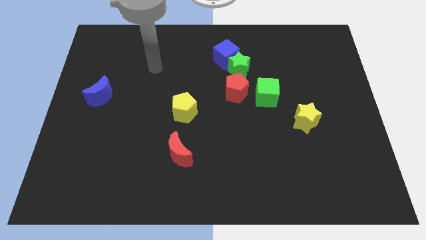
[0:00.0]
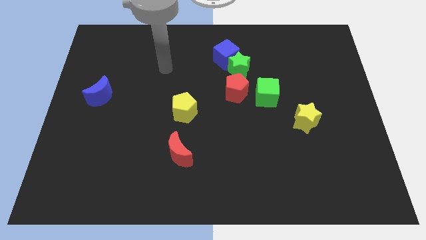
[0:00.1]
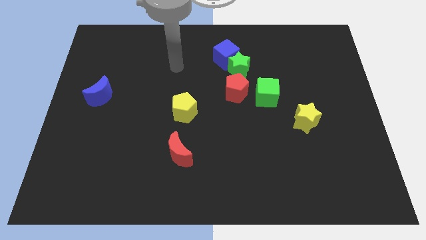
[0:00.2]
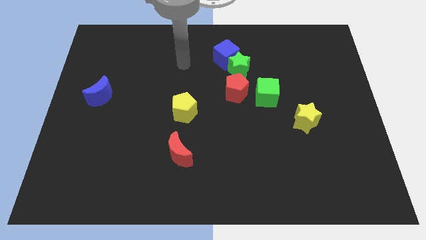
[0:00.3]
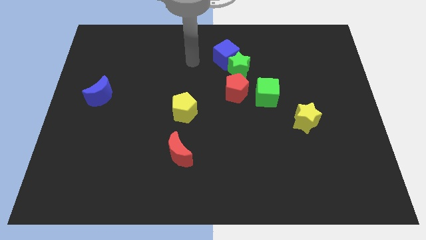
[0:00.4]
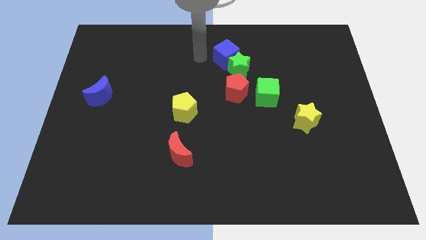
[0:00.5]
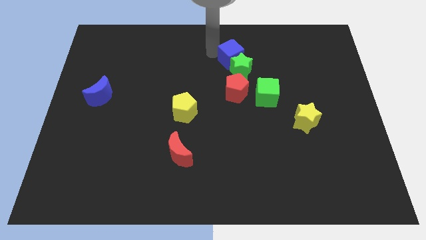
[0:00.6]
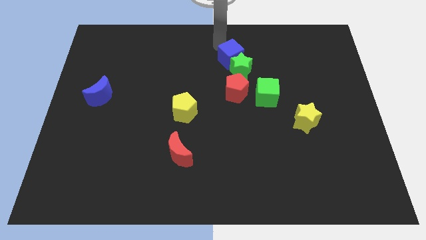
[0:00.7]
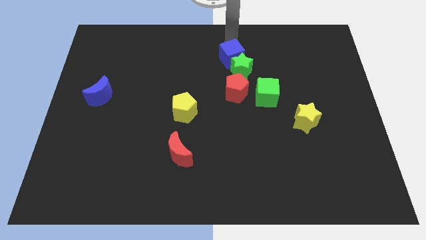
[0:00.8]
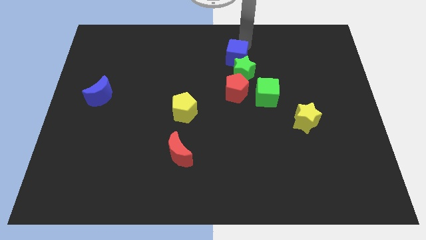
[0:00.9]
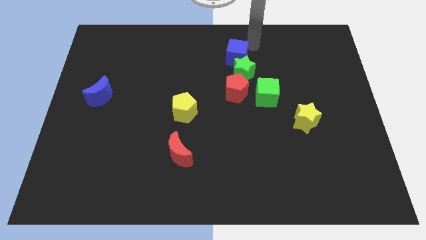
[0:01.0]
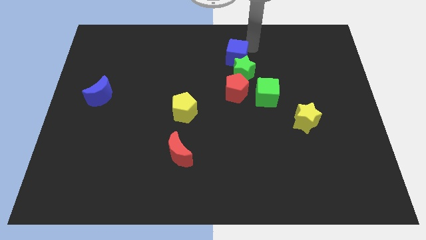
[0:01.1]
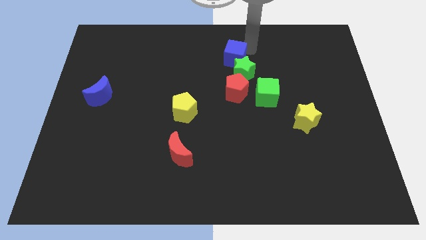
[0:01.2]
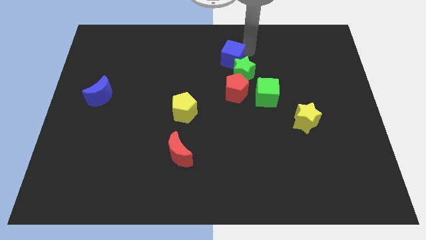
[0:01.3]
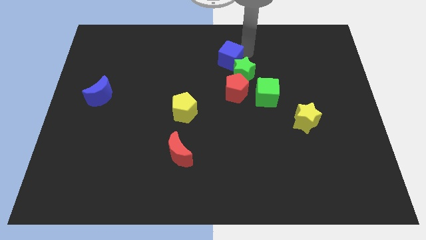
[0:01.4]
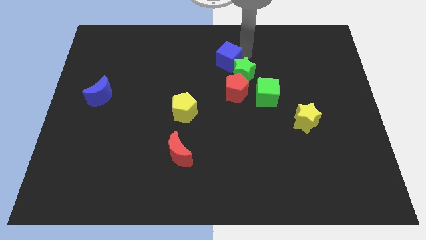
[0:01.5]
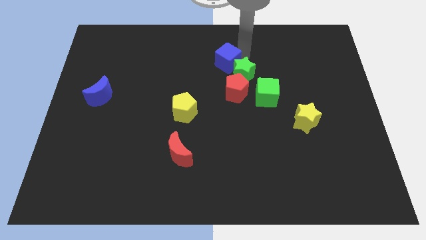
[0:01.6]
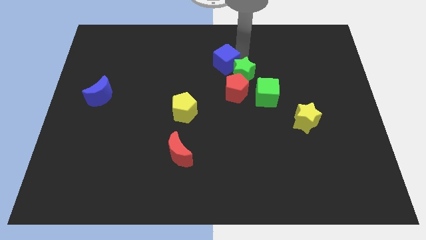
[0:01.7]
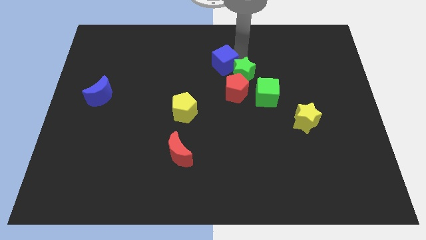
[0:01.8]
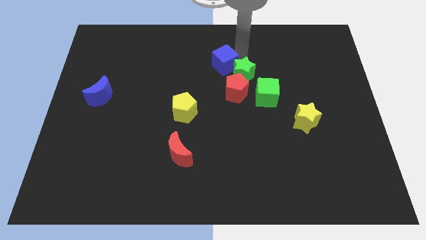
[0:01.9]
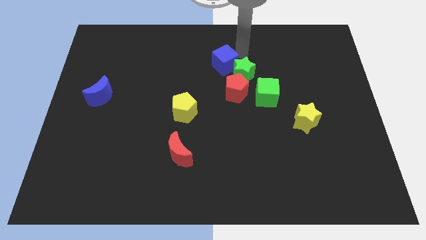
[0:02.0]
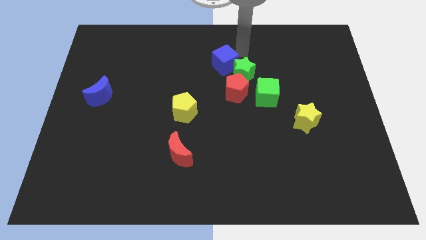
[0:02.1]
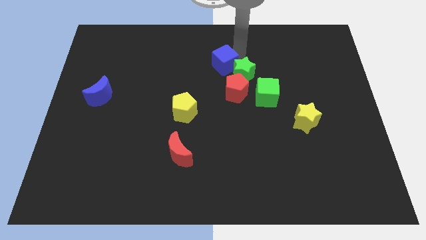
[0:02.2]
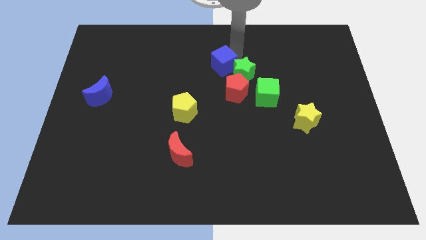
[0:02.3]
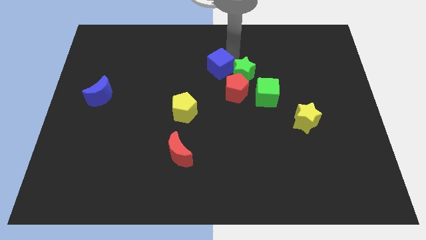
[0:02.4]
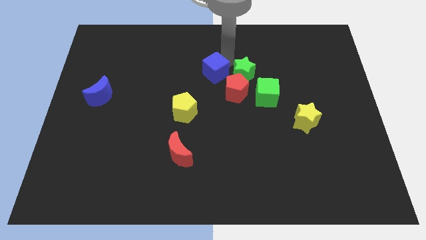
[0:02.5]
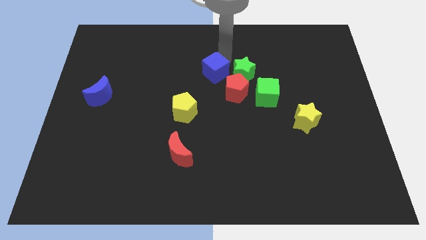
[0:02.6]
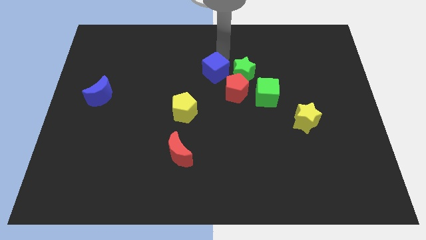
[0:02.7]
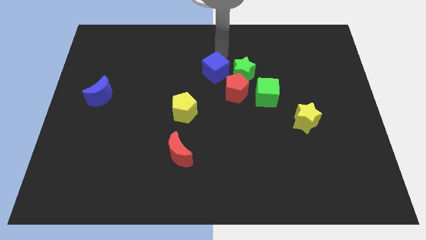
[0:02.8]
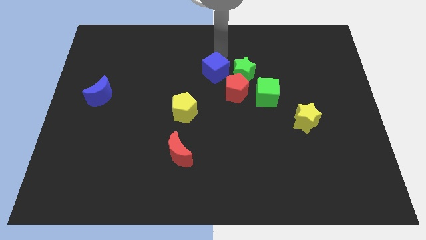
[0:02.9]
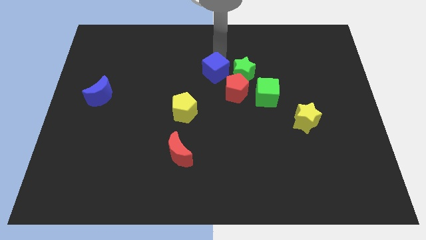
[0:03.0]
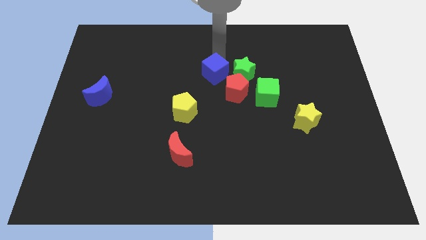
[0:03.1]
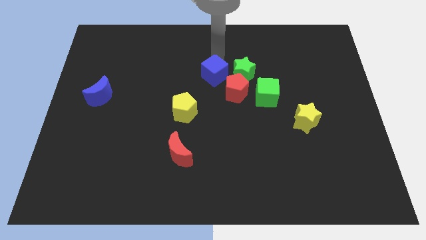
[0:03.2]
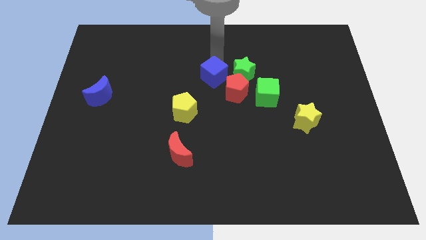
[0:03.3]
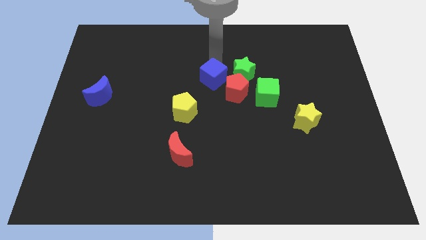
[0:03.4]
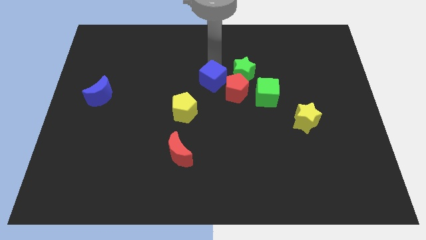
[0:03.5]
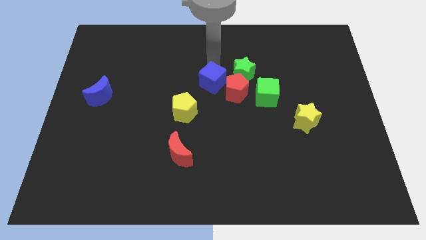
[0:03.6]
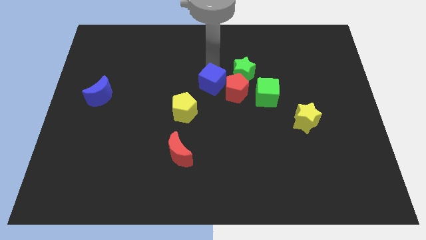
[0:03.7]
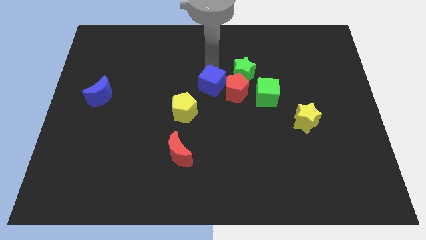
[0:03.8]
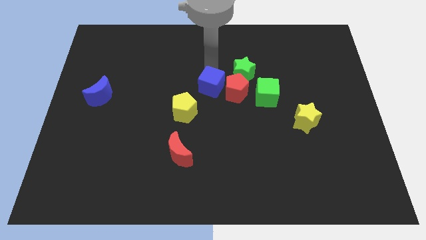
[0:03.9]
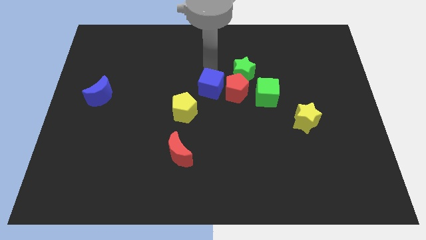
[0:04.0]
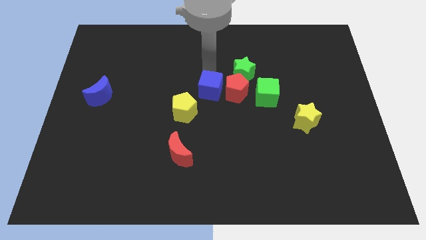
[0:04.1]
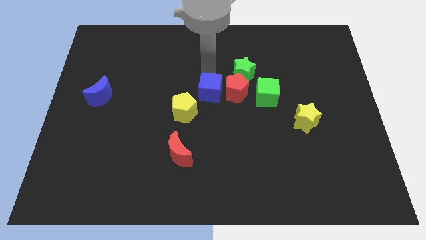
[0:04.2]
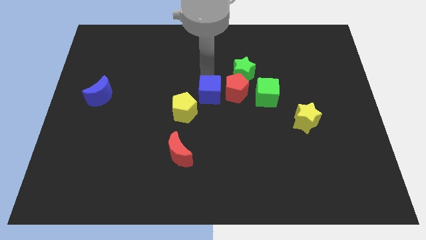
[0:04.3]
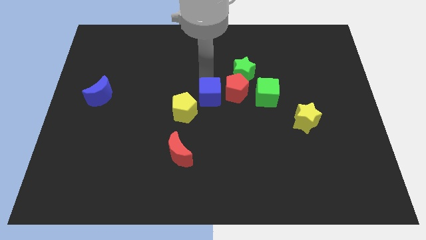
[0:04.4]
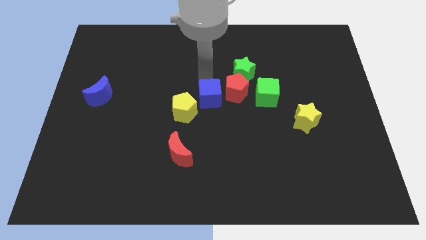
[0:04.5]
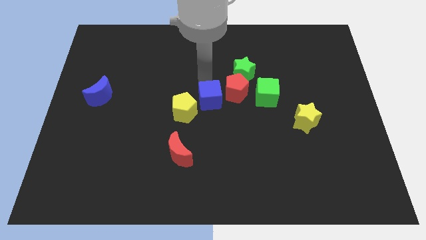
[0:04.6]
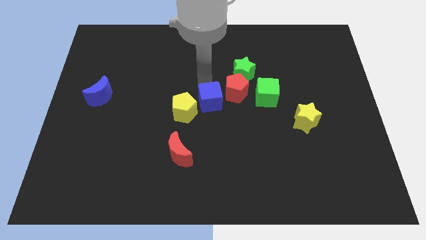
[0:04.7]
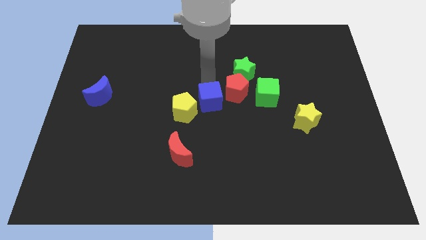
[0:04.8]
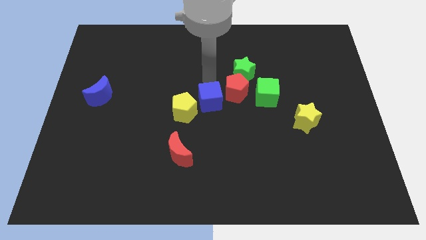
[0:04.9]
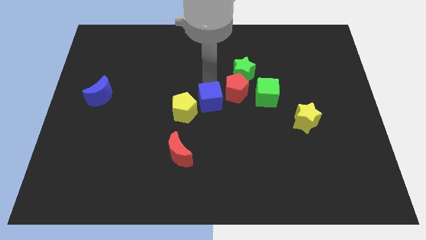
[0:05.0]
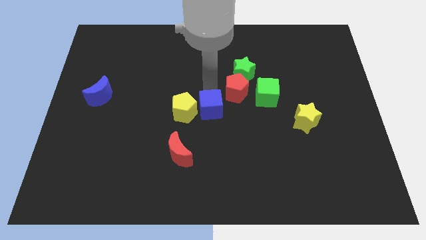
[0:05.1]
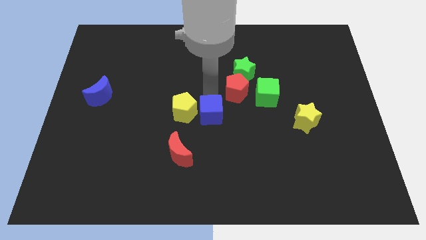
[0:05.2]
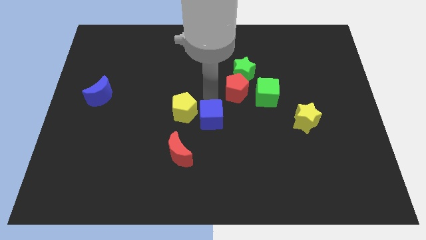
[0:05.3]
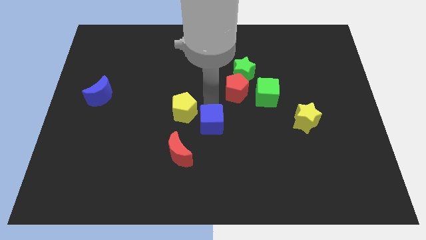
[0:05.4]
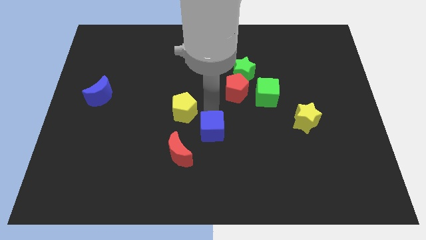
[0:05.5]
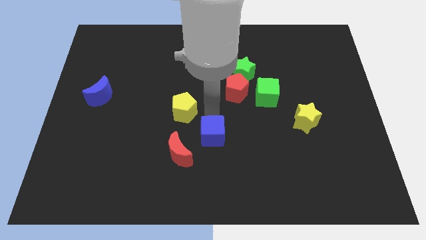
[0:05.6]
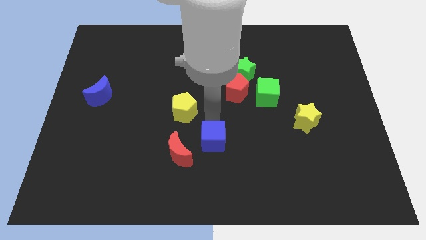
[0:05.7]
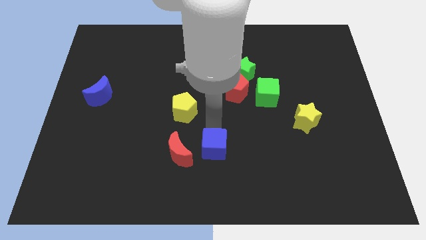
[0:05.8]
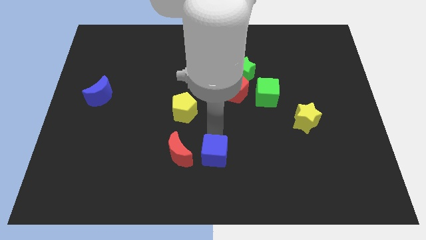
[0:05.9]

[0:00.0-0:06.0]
push the blue cube to the bottom side

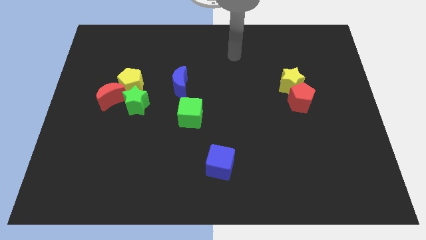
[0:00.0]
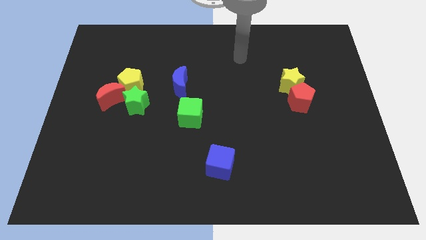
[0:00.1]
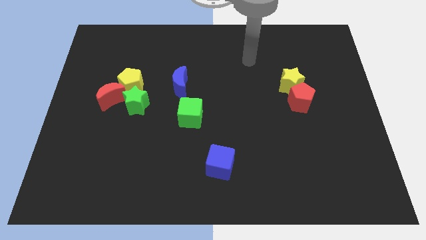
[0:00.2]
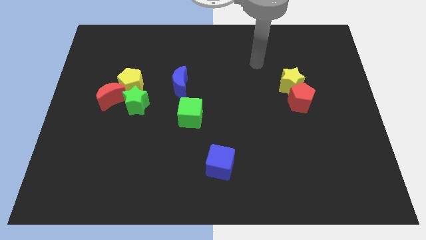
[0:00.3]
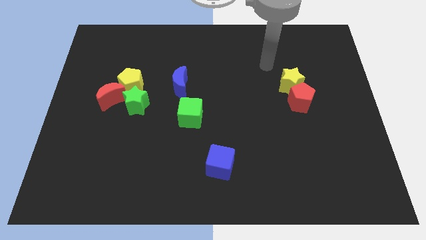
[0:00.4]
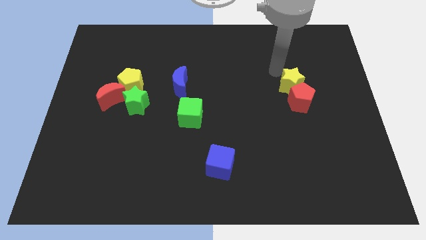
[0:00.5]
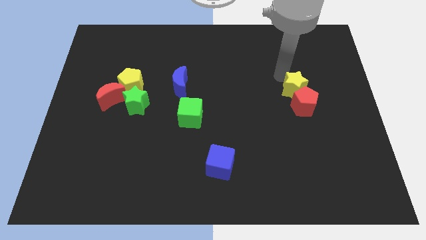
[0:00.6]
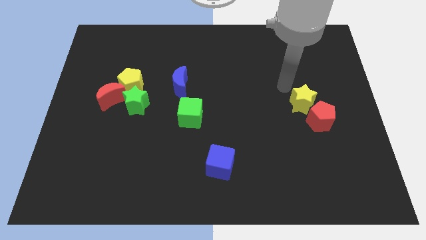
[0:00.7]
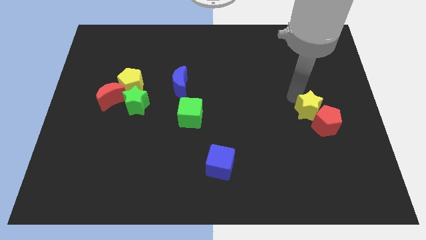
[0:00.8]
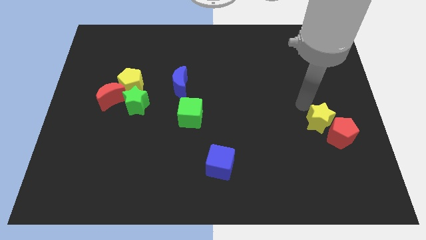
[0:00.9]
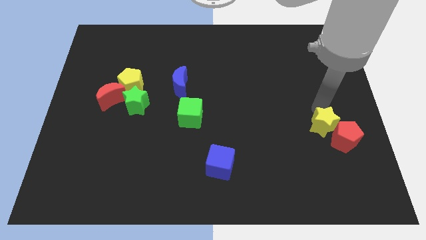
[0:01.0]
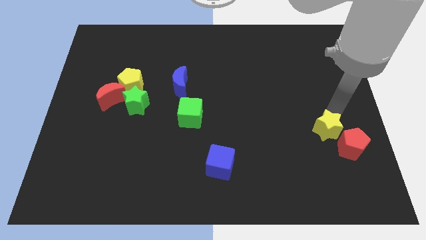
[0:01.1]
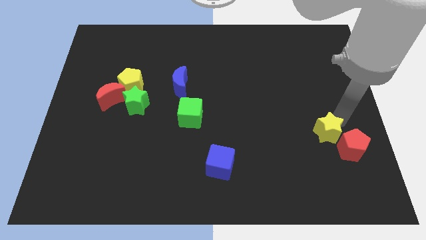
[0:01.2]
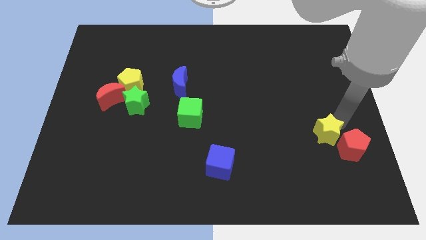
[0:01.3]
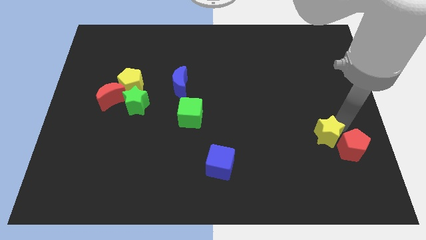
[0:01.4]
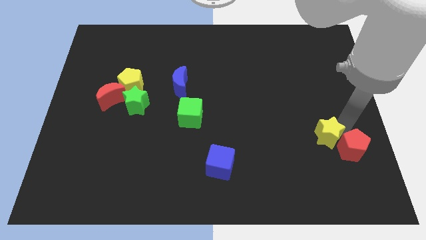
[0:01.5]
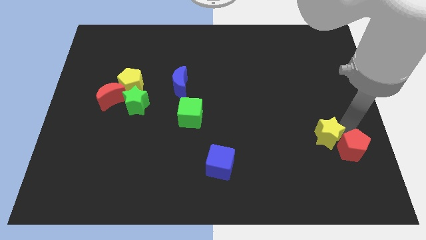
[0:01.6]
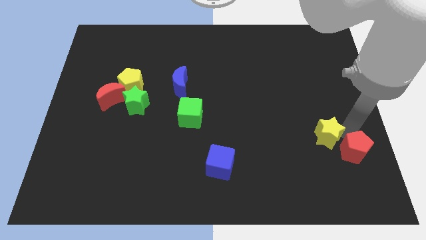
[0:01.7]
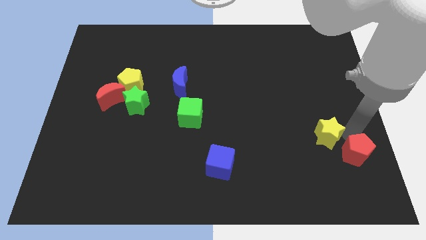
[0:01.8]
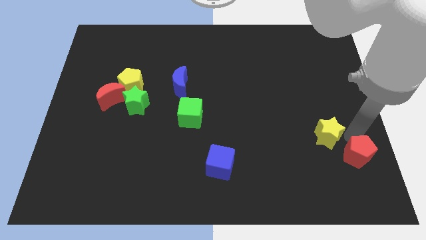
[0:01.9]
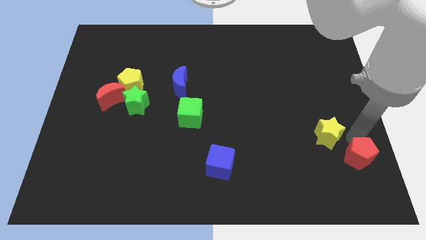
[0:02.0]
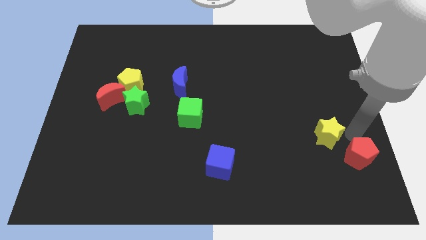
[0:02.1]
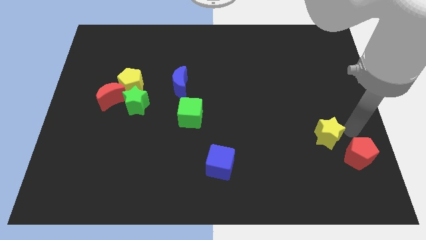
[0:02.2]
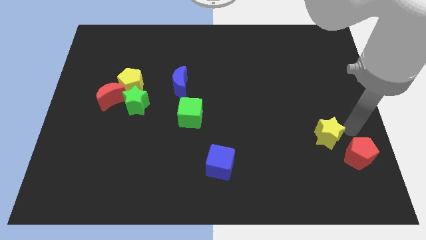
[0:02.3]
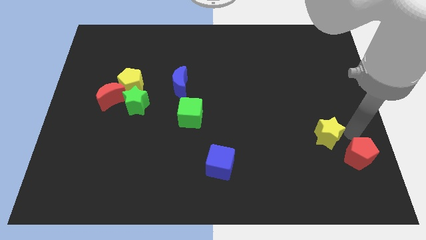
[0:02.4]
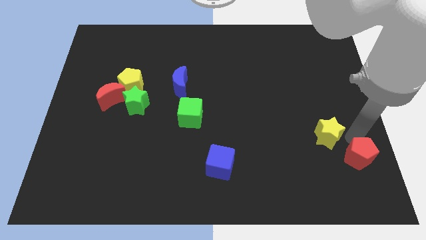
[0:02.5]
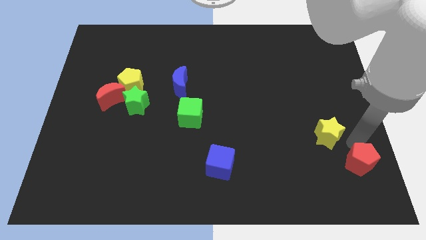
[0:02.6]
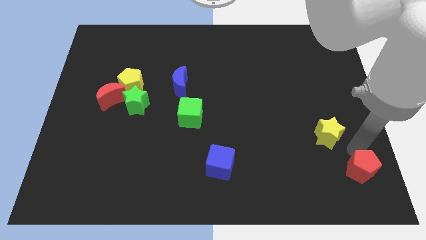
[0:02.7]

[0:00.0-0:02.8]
put the red pentagon to the bottom right of the board
